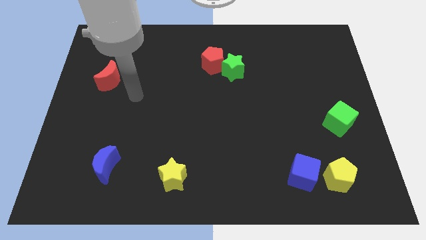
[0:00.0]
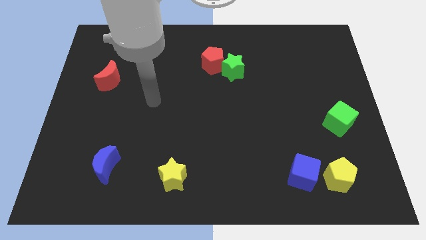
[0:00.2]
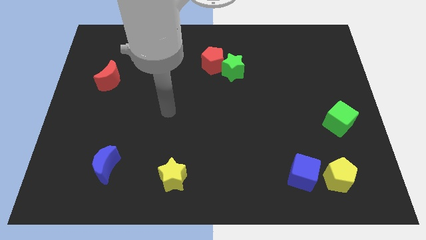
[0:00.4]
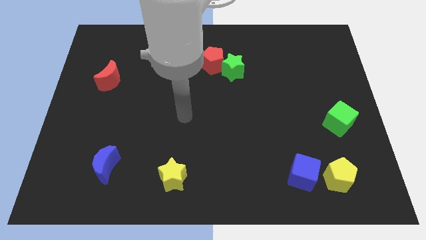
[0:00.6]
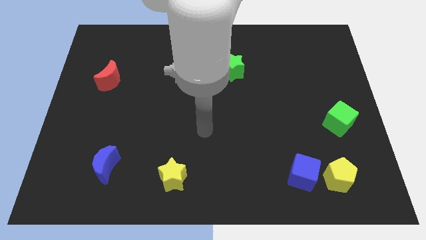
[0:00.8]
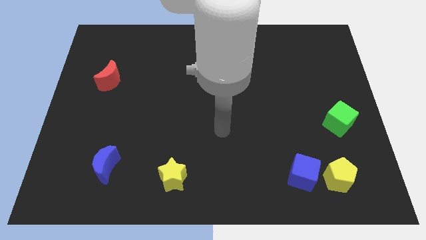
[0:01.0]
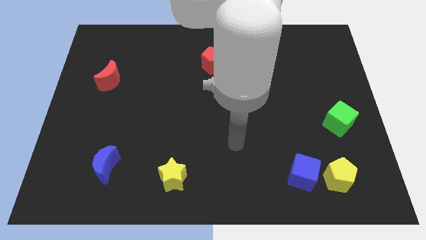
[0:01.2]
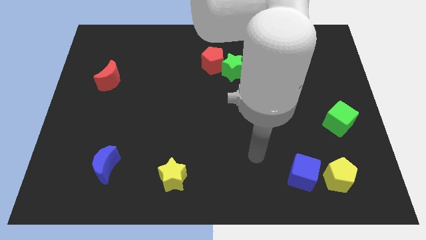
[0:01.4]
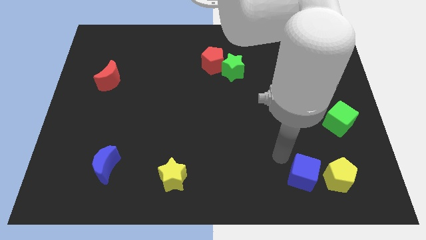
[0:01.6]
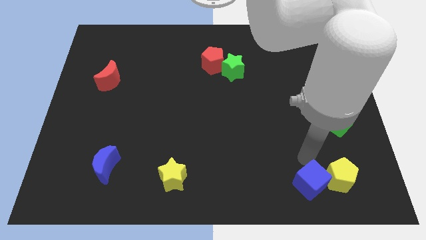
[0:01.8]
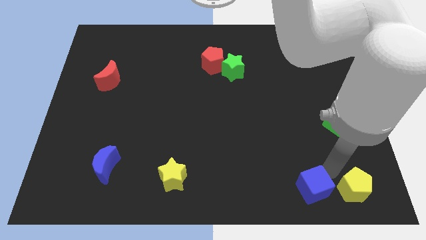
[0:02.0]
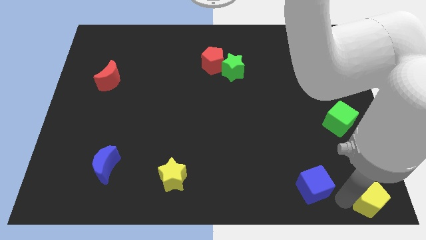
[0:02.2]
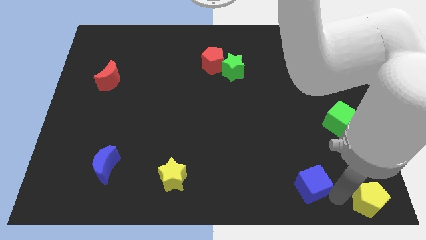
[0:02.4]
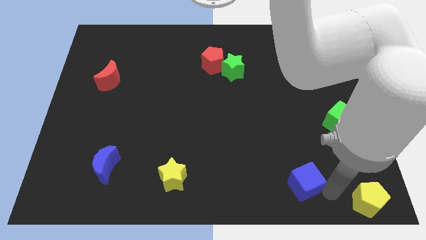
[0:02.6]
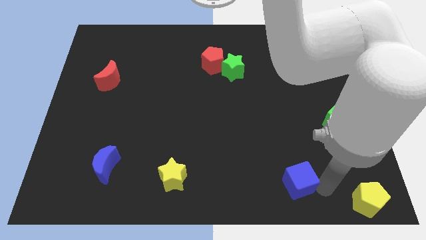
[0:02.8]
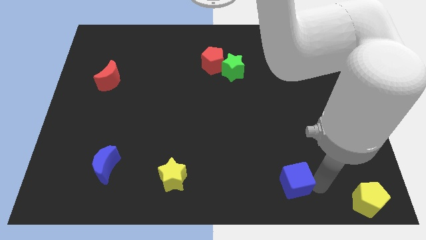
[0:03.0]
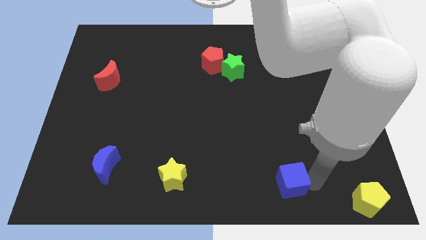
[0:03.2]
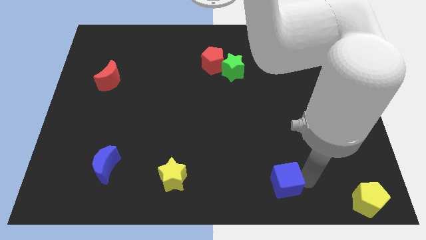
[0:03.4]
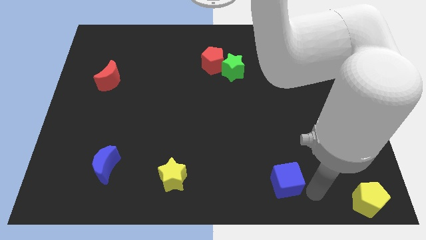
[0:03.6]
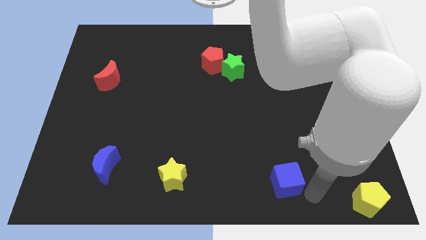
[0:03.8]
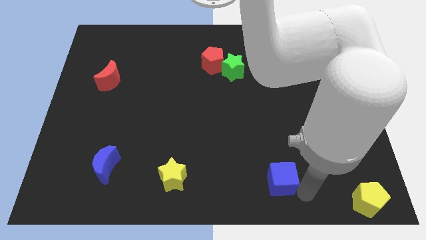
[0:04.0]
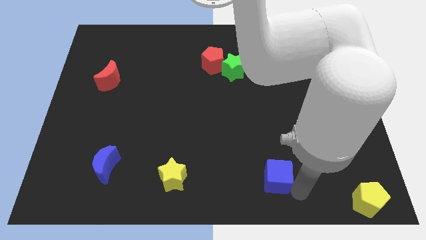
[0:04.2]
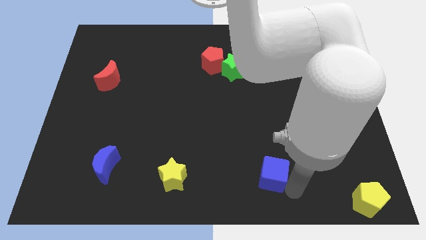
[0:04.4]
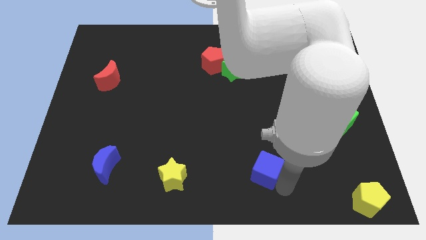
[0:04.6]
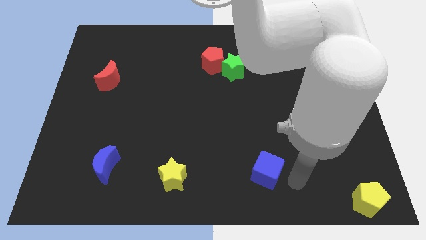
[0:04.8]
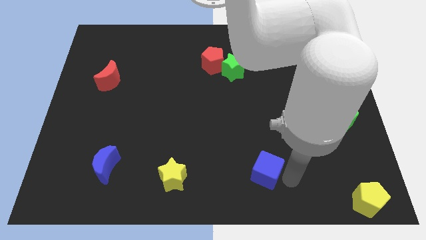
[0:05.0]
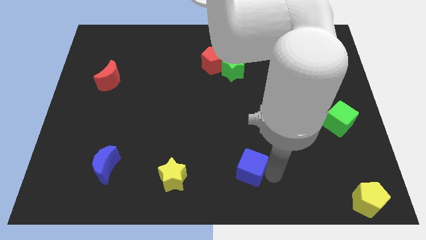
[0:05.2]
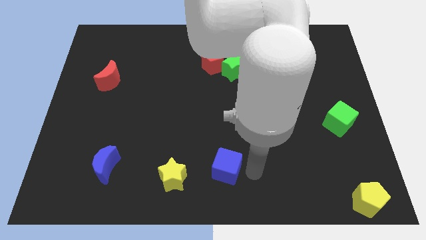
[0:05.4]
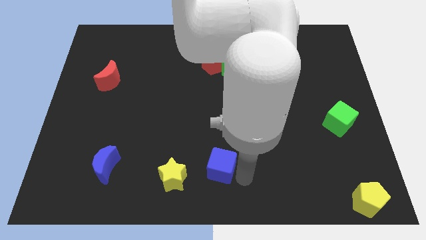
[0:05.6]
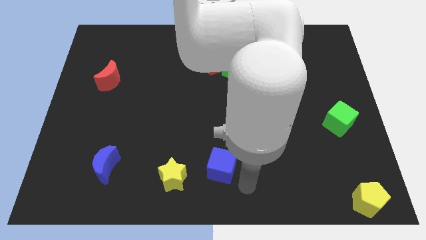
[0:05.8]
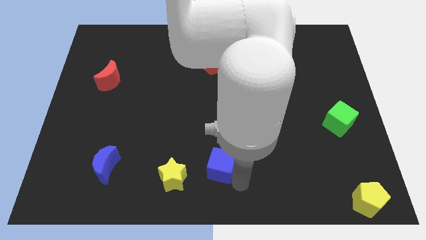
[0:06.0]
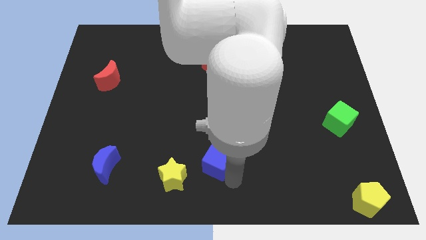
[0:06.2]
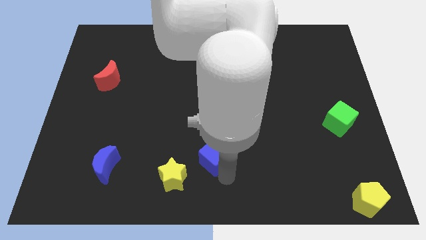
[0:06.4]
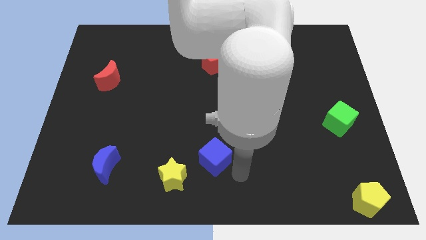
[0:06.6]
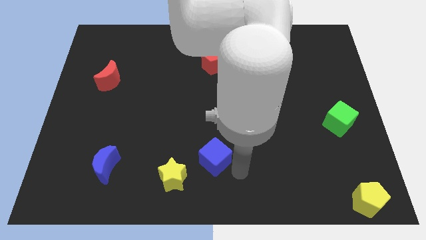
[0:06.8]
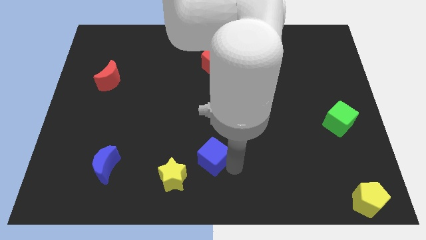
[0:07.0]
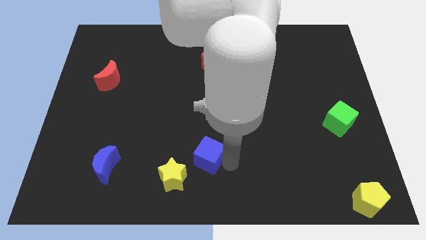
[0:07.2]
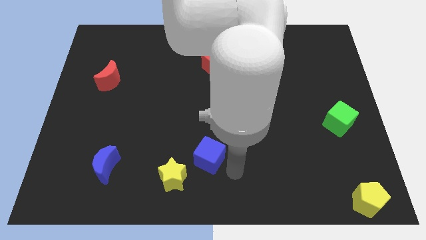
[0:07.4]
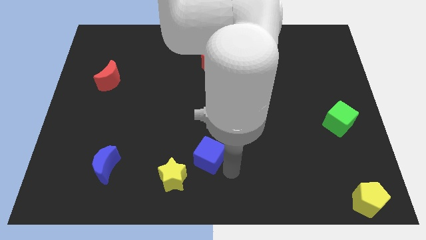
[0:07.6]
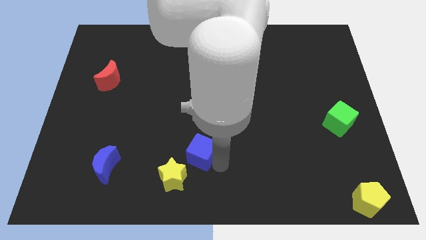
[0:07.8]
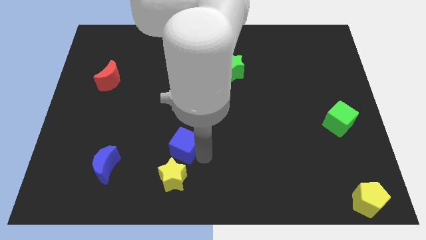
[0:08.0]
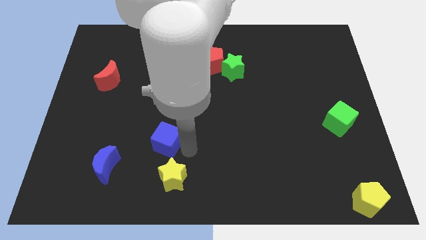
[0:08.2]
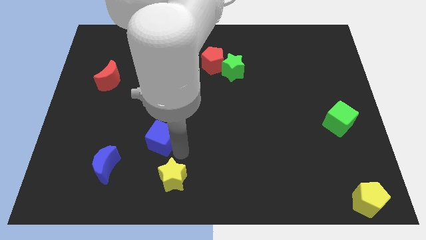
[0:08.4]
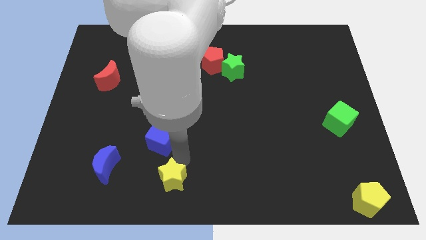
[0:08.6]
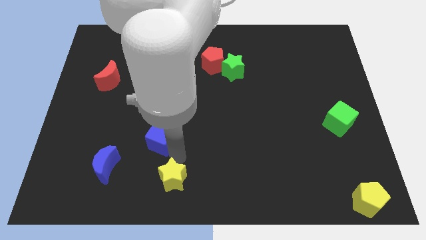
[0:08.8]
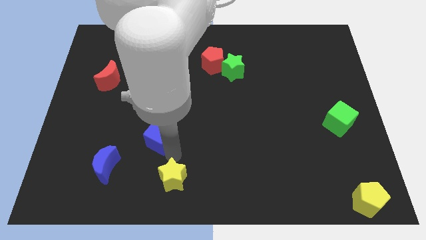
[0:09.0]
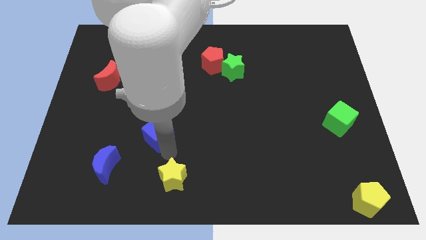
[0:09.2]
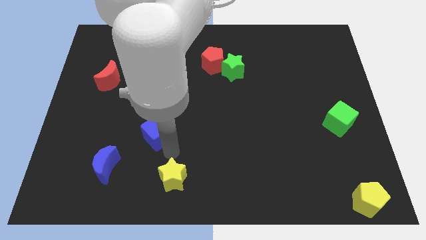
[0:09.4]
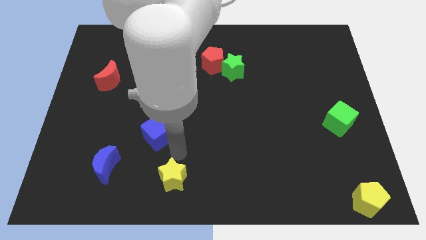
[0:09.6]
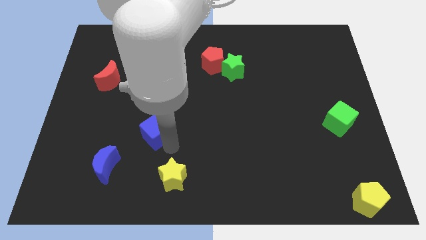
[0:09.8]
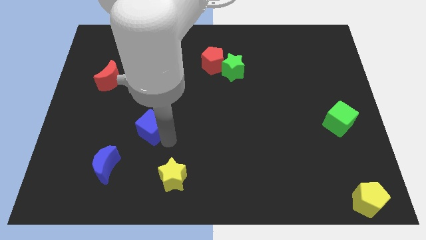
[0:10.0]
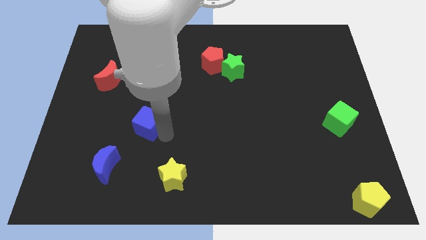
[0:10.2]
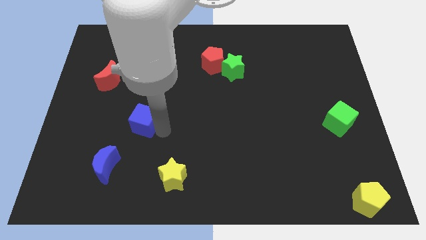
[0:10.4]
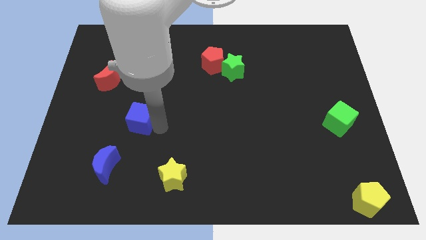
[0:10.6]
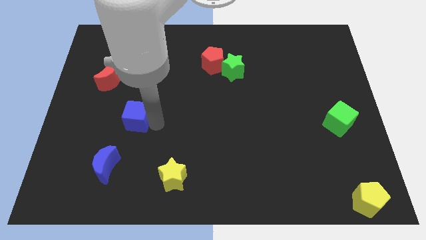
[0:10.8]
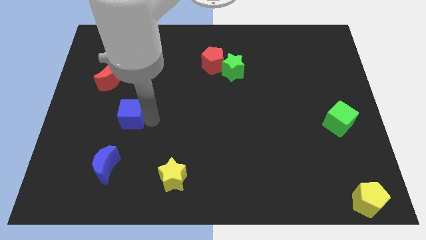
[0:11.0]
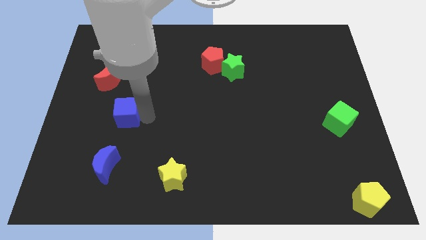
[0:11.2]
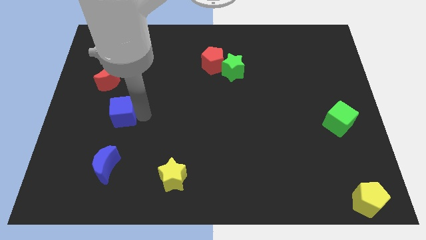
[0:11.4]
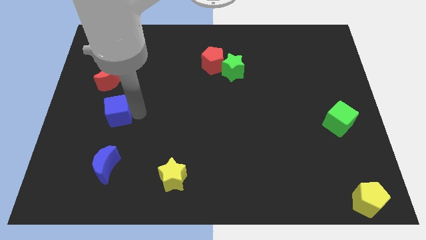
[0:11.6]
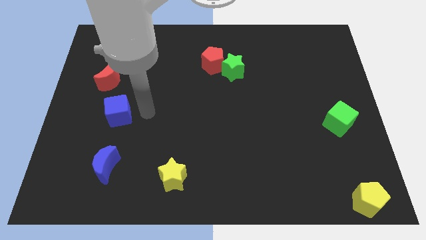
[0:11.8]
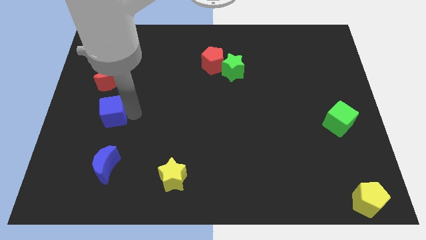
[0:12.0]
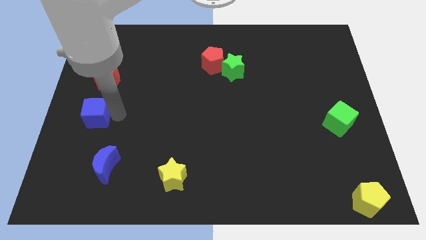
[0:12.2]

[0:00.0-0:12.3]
slide the blue cube to the center left
